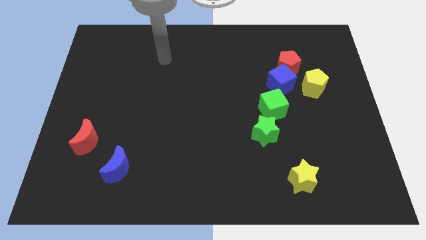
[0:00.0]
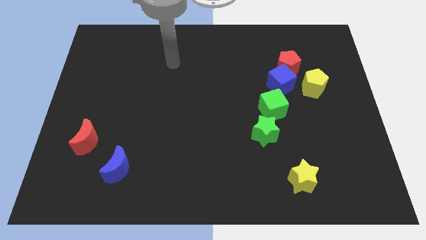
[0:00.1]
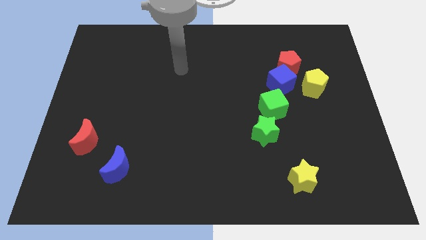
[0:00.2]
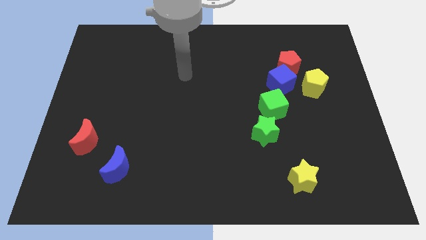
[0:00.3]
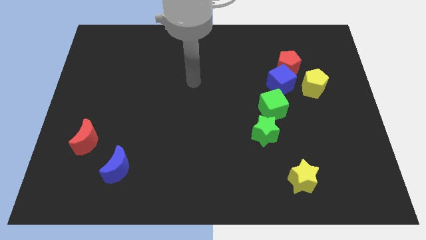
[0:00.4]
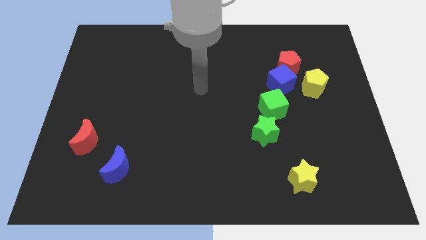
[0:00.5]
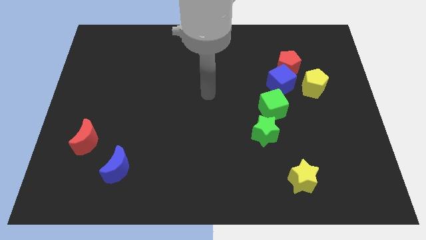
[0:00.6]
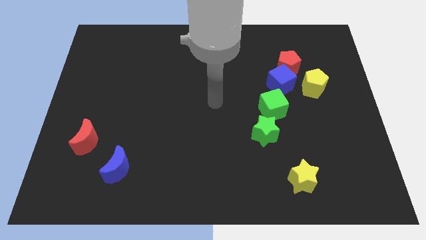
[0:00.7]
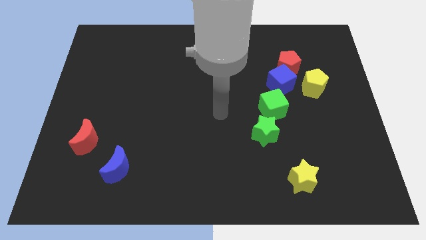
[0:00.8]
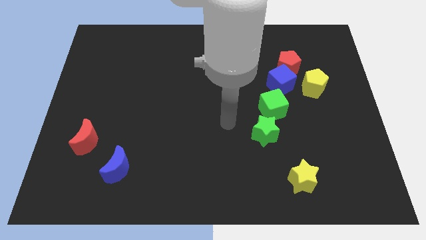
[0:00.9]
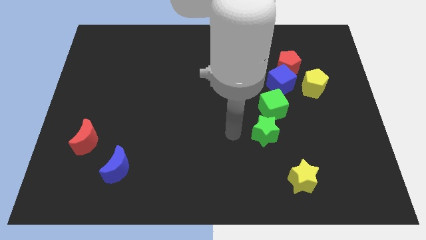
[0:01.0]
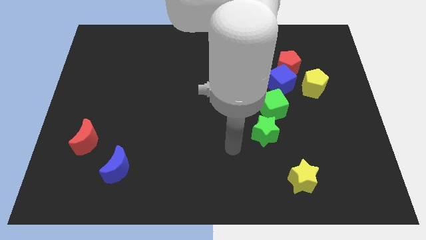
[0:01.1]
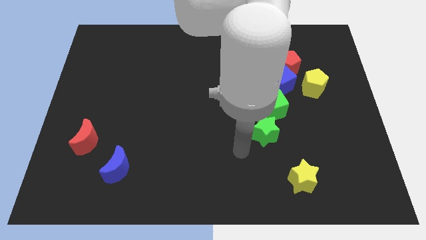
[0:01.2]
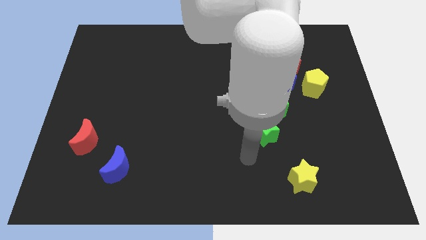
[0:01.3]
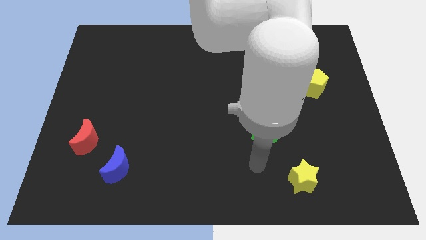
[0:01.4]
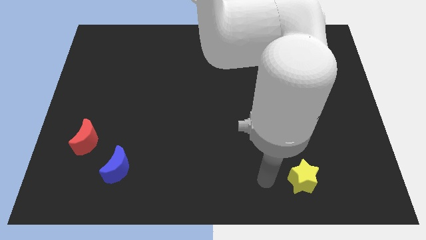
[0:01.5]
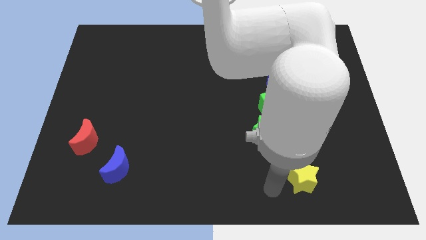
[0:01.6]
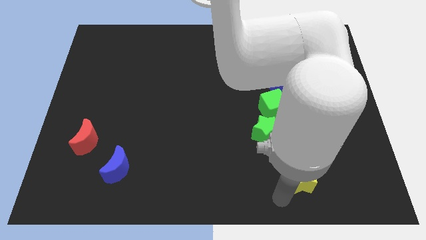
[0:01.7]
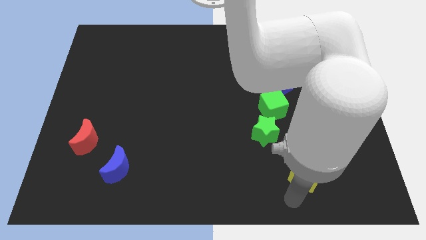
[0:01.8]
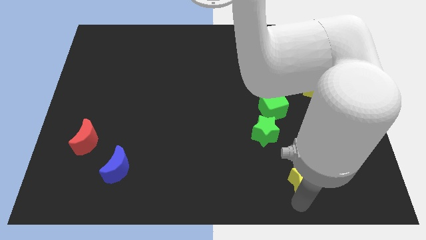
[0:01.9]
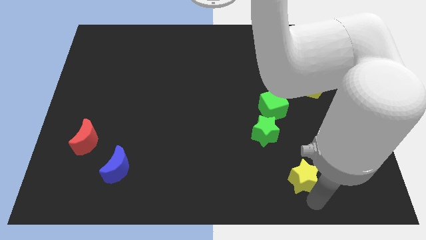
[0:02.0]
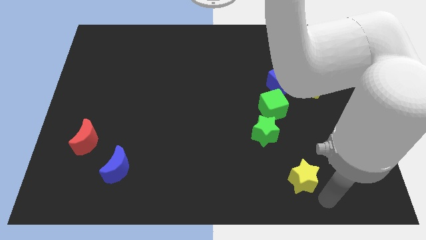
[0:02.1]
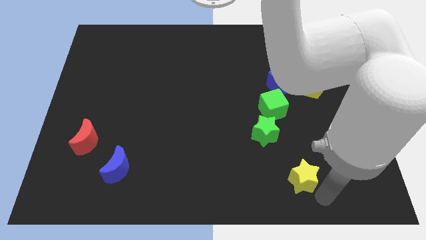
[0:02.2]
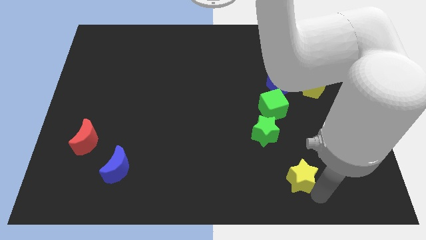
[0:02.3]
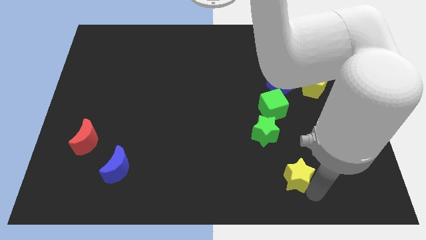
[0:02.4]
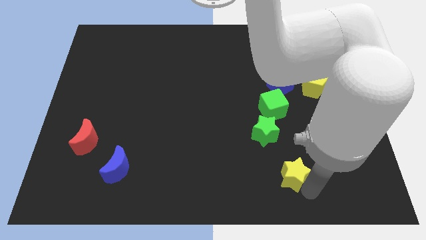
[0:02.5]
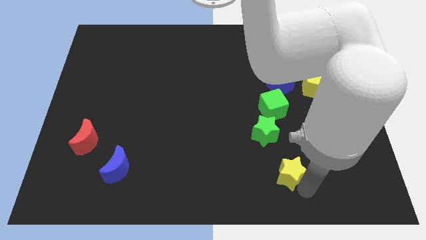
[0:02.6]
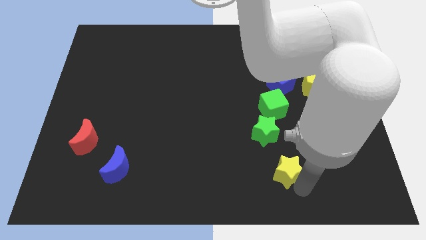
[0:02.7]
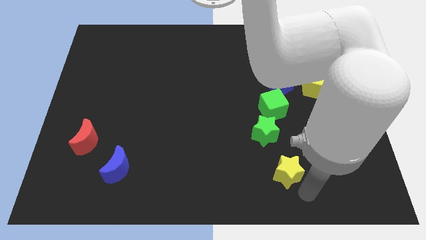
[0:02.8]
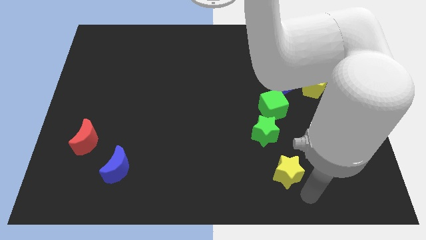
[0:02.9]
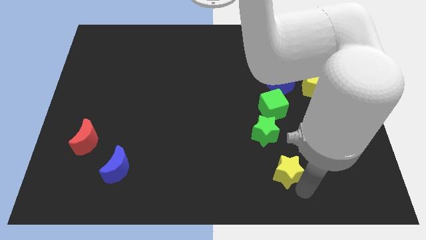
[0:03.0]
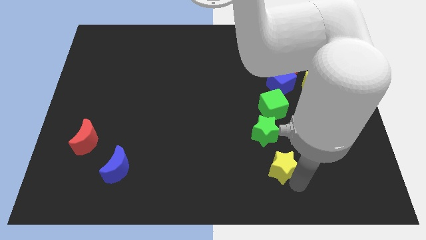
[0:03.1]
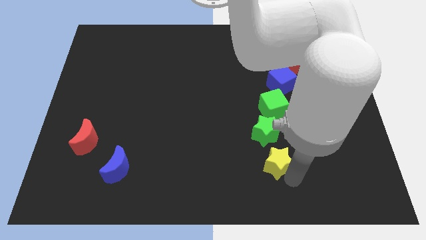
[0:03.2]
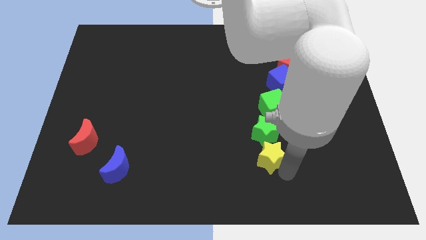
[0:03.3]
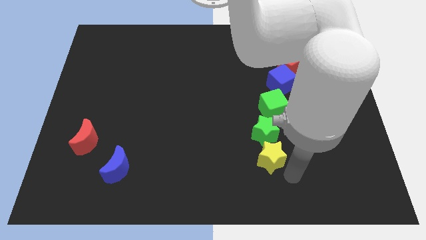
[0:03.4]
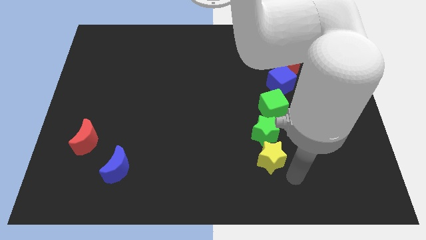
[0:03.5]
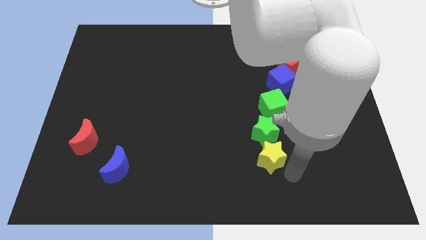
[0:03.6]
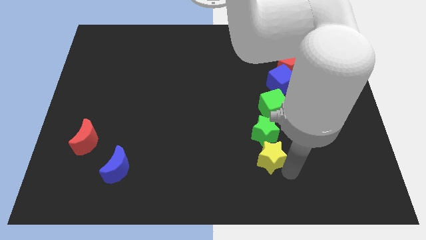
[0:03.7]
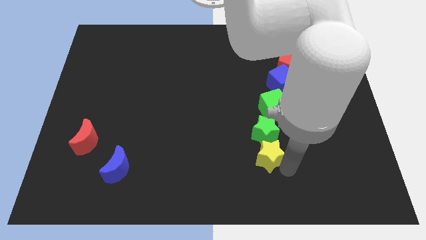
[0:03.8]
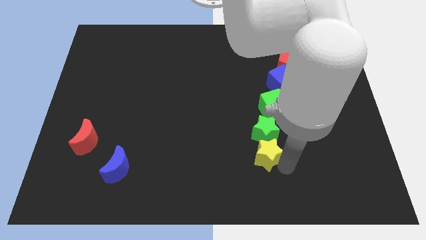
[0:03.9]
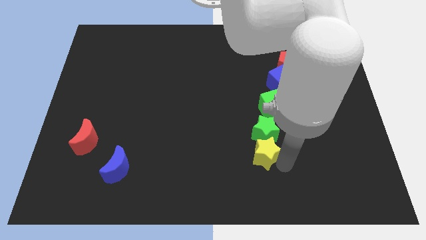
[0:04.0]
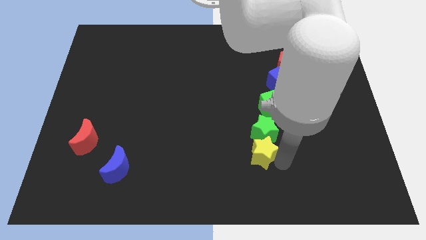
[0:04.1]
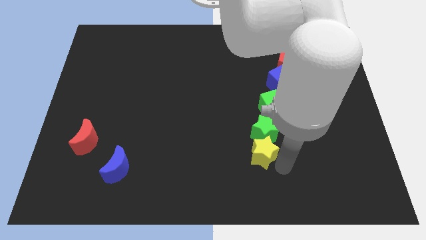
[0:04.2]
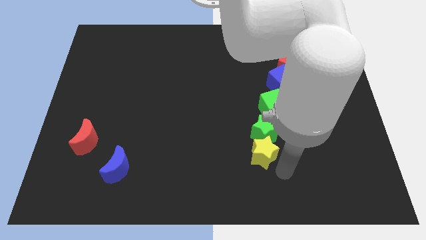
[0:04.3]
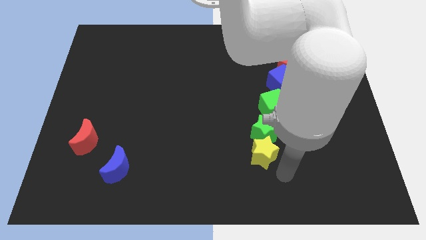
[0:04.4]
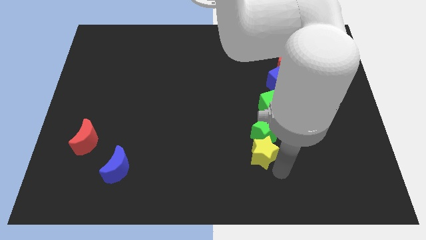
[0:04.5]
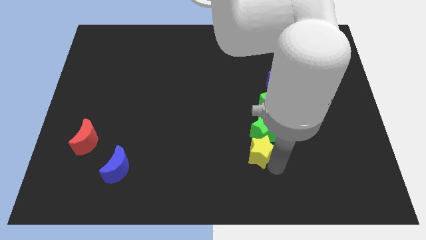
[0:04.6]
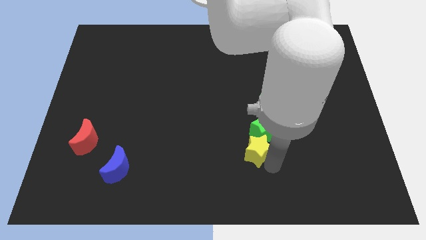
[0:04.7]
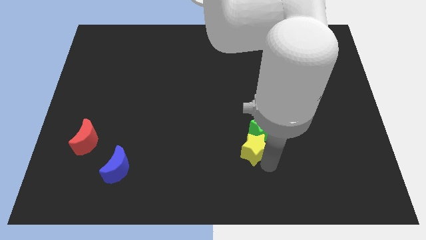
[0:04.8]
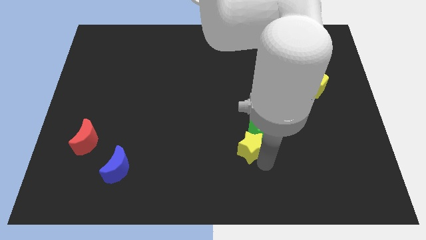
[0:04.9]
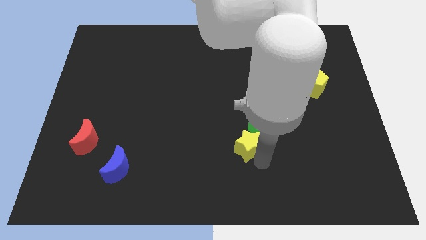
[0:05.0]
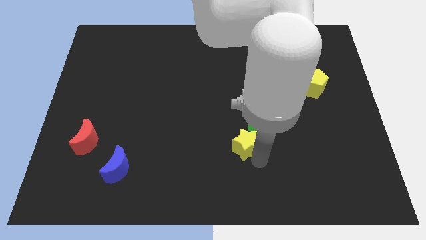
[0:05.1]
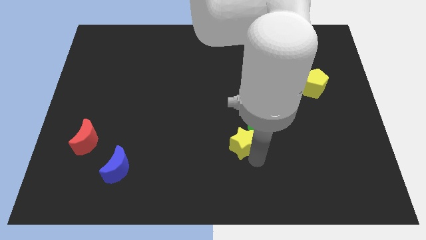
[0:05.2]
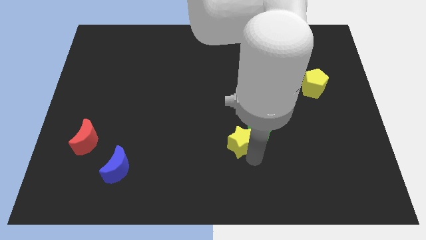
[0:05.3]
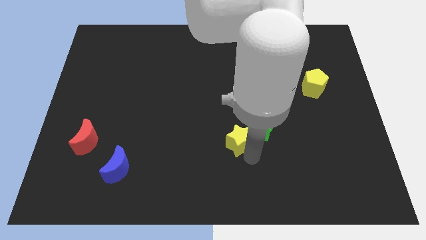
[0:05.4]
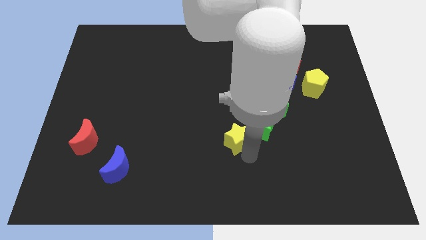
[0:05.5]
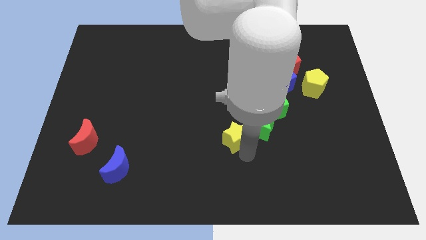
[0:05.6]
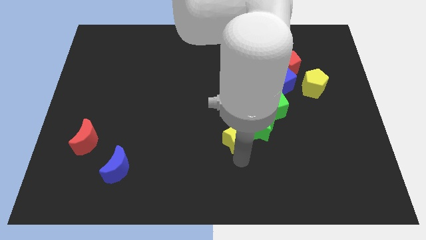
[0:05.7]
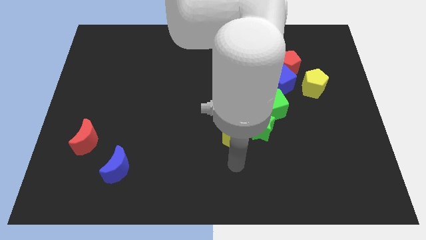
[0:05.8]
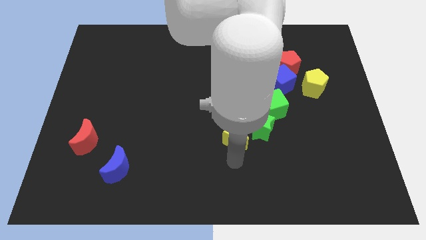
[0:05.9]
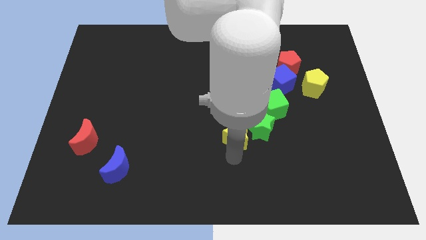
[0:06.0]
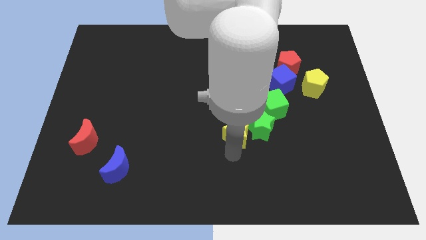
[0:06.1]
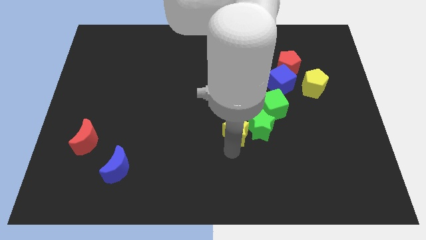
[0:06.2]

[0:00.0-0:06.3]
slide the yellow star to the top left side of the green star
